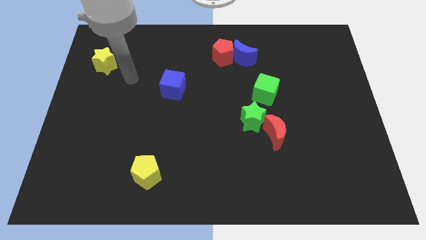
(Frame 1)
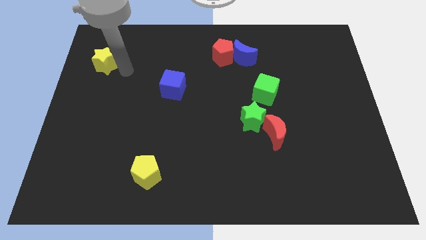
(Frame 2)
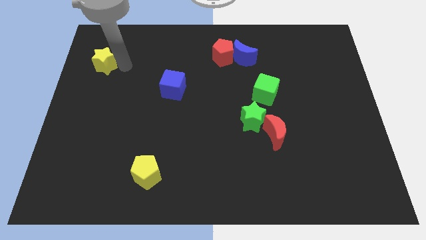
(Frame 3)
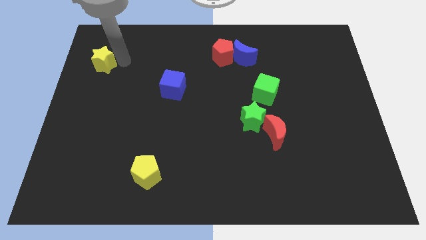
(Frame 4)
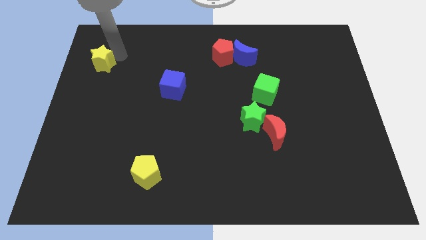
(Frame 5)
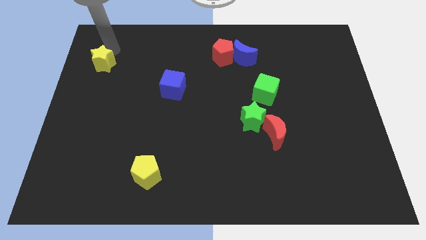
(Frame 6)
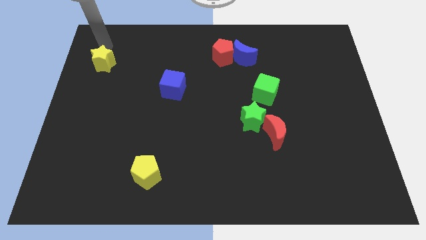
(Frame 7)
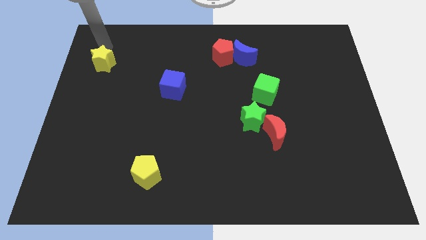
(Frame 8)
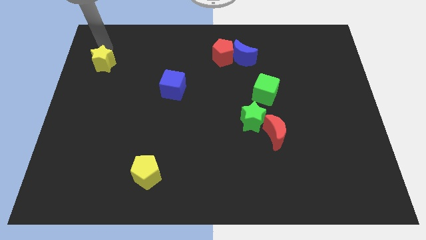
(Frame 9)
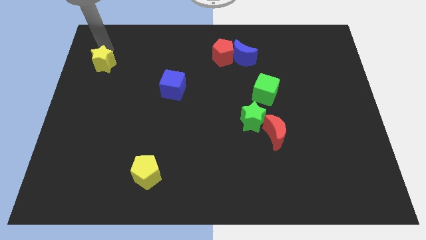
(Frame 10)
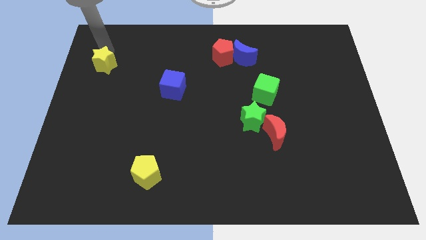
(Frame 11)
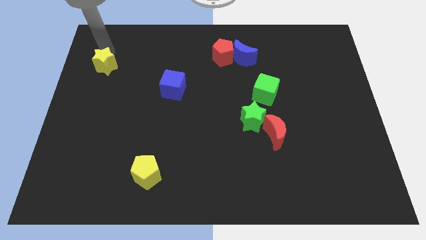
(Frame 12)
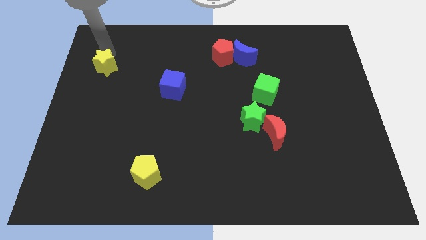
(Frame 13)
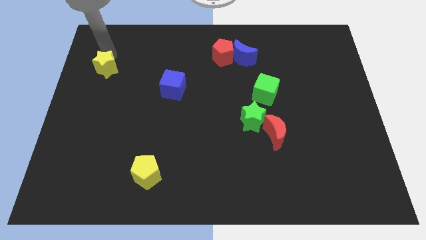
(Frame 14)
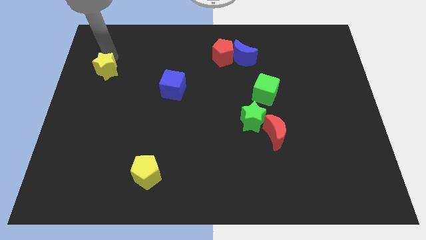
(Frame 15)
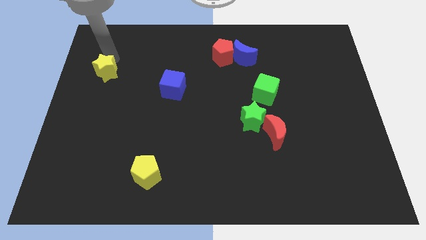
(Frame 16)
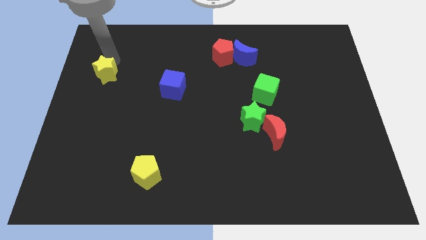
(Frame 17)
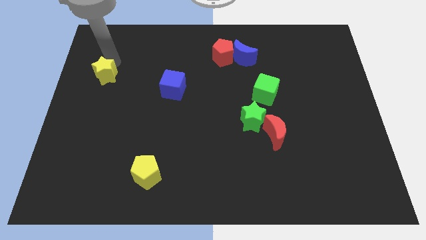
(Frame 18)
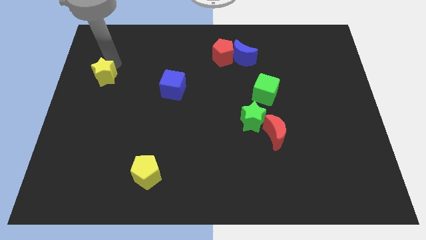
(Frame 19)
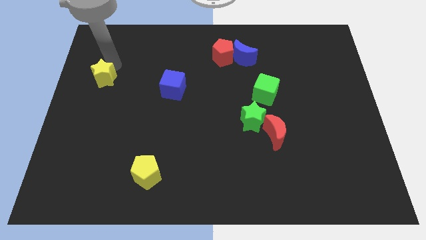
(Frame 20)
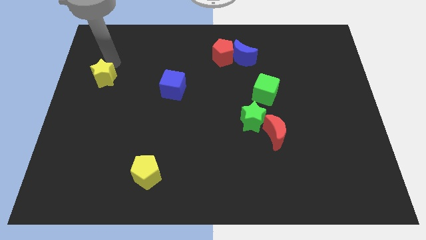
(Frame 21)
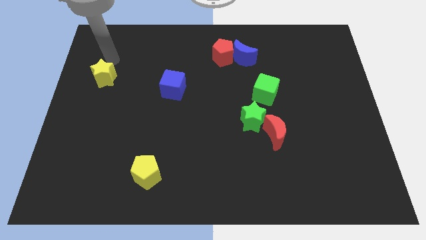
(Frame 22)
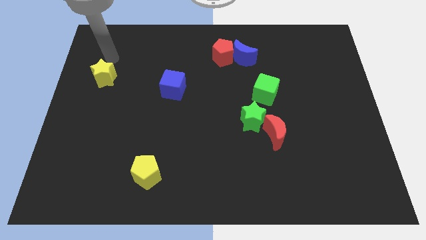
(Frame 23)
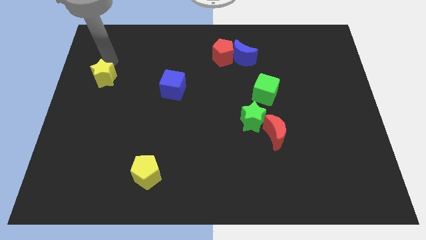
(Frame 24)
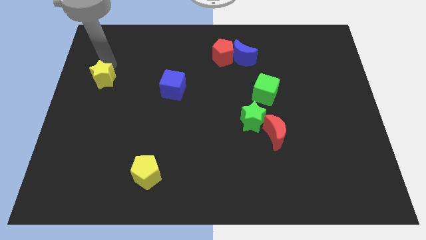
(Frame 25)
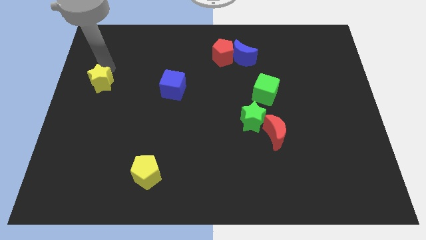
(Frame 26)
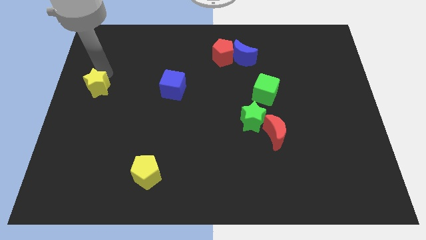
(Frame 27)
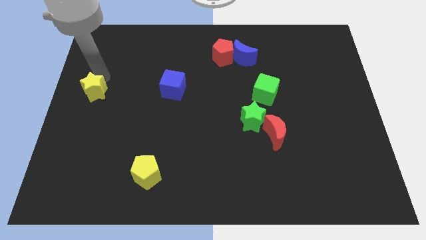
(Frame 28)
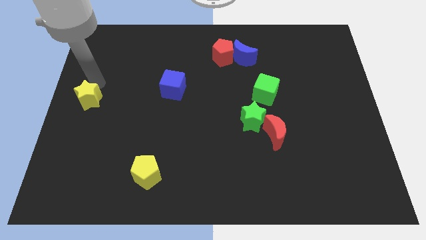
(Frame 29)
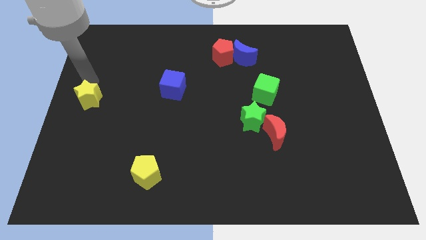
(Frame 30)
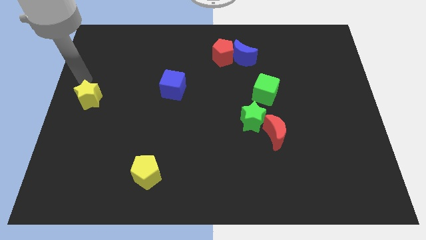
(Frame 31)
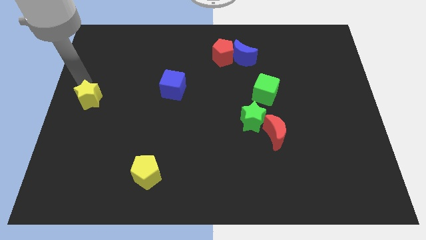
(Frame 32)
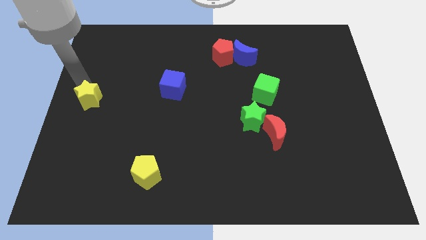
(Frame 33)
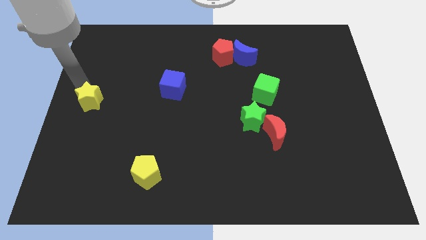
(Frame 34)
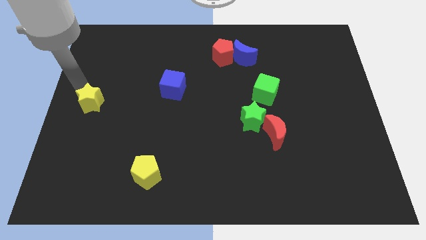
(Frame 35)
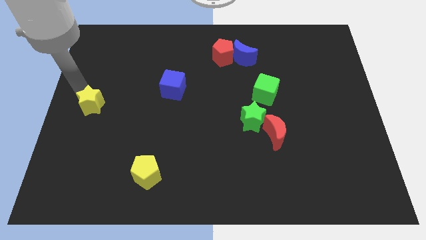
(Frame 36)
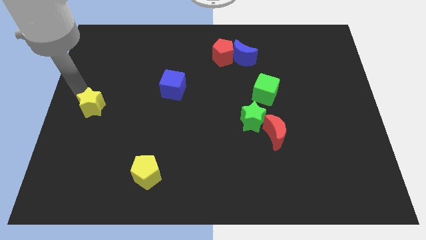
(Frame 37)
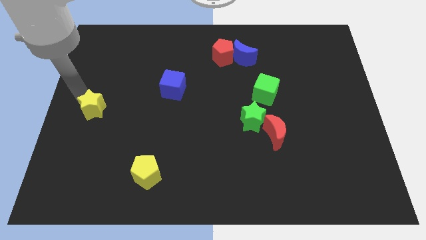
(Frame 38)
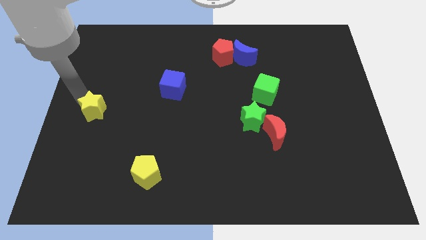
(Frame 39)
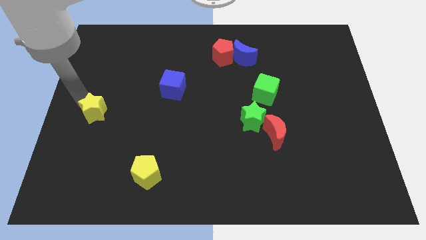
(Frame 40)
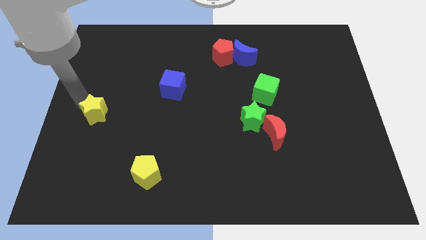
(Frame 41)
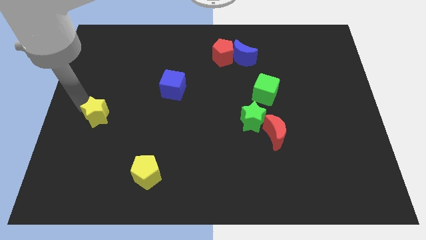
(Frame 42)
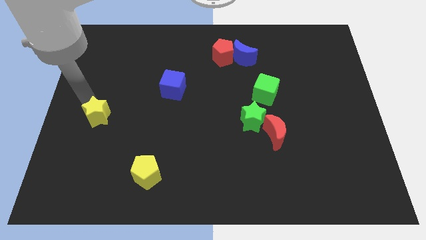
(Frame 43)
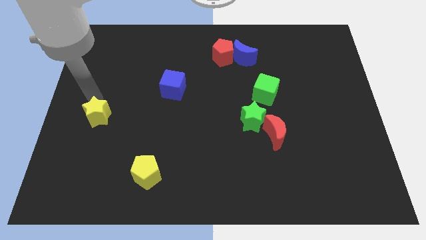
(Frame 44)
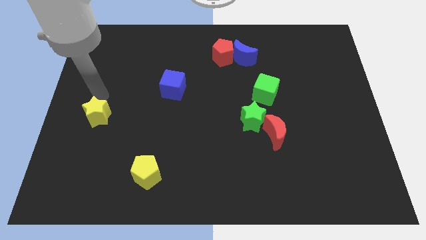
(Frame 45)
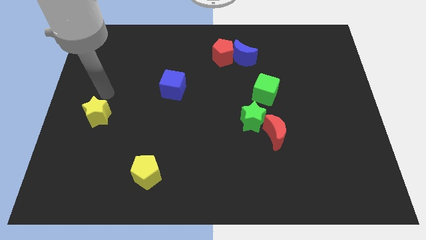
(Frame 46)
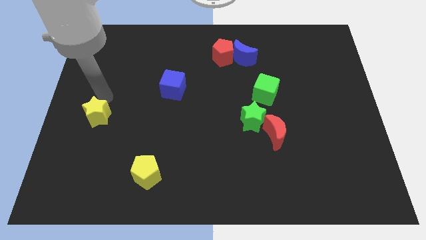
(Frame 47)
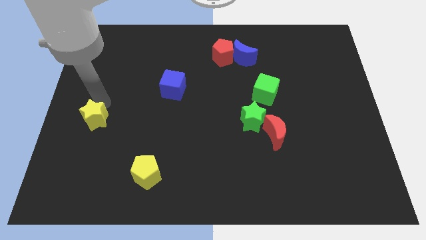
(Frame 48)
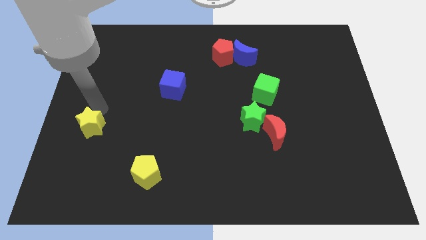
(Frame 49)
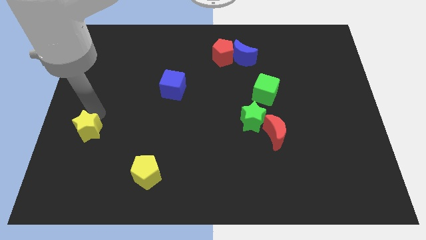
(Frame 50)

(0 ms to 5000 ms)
slide the yellow star downwards

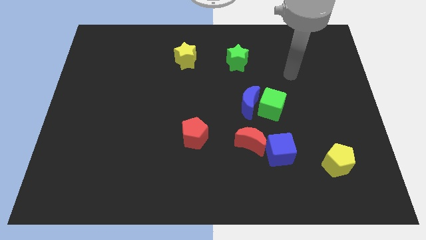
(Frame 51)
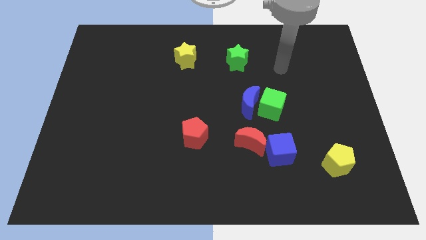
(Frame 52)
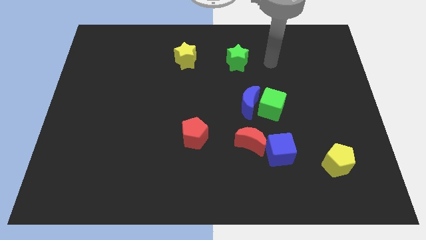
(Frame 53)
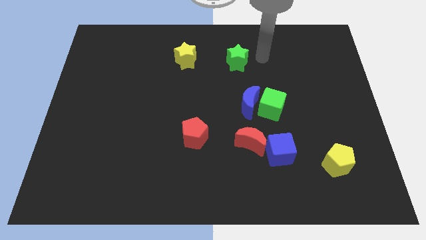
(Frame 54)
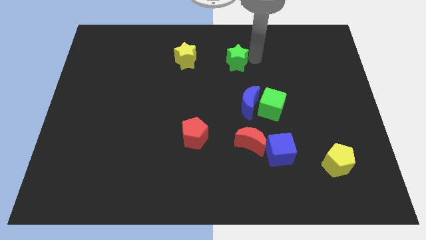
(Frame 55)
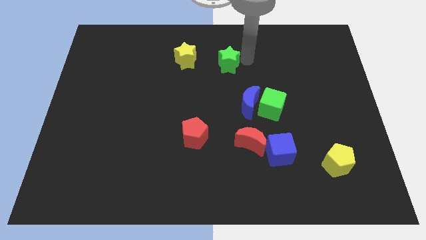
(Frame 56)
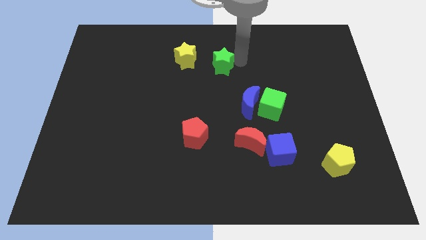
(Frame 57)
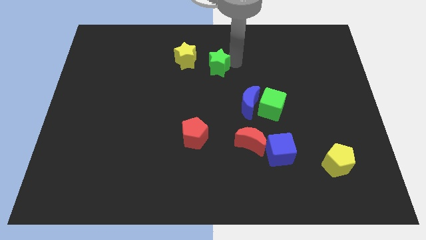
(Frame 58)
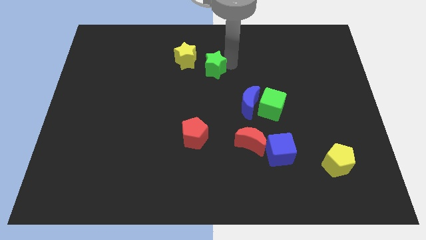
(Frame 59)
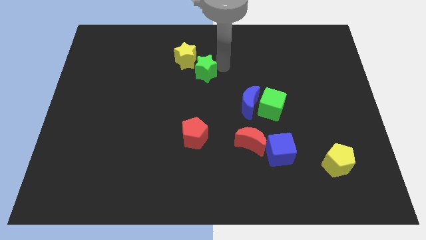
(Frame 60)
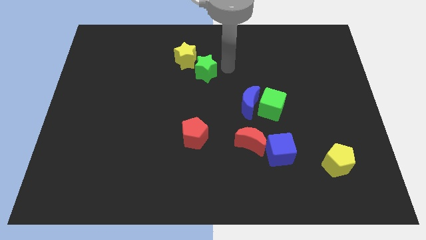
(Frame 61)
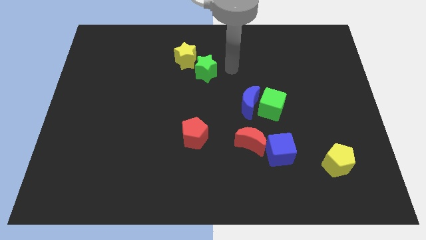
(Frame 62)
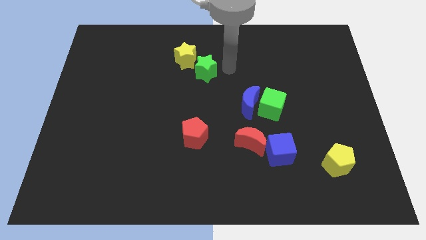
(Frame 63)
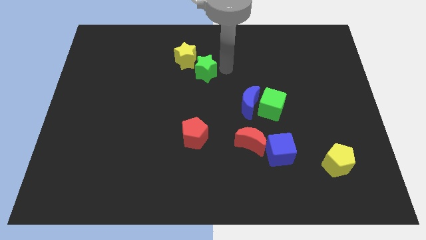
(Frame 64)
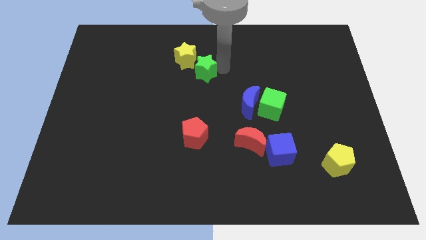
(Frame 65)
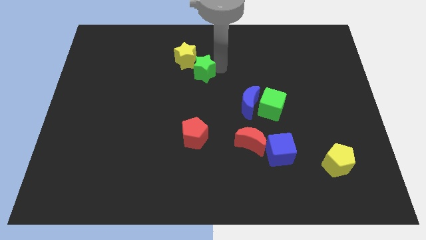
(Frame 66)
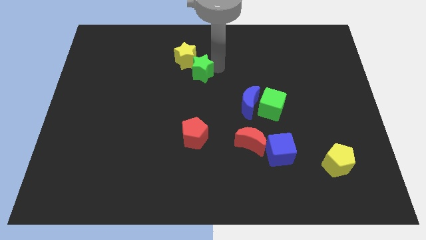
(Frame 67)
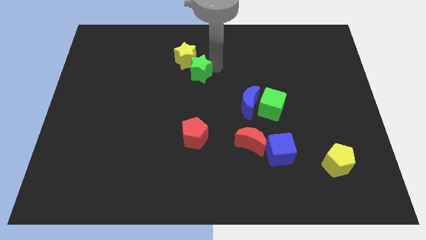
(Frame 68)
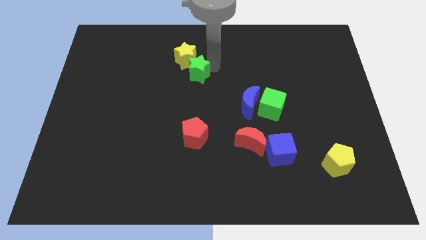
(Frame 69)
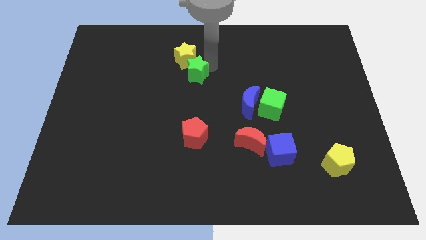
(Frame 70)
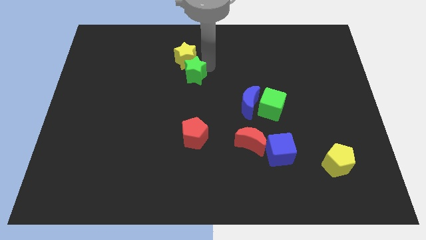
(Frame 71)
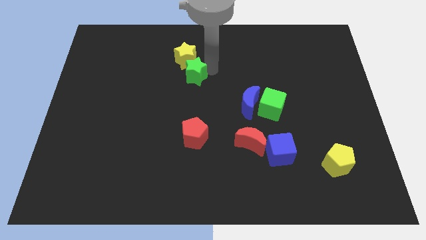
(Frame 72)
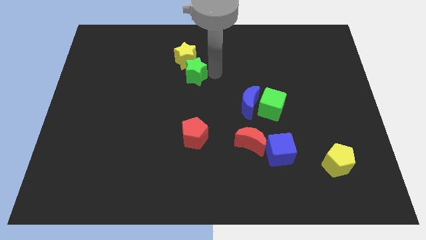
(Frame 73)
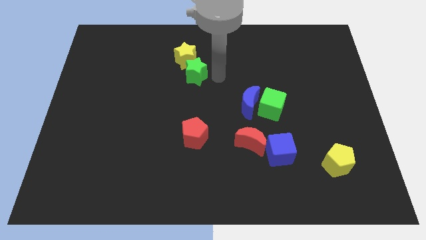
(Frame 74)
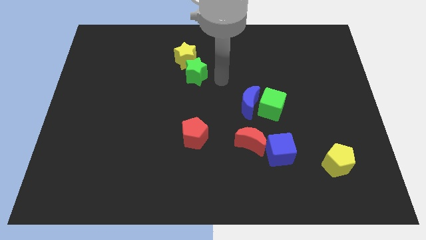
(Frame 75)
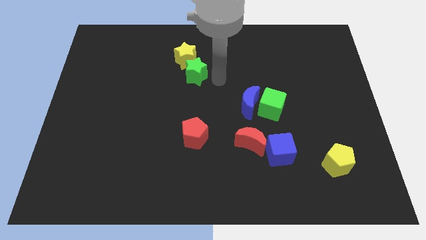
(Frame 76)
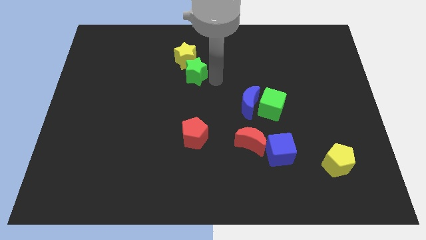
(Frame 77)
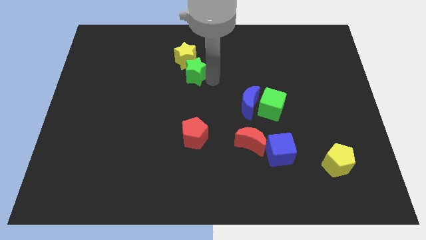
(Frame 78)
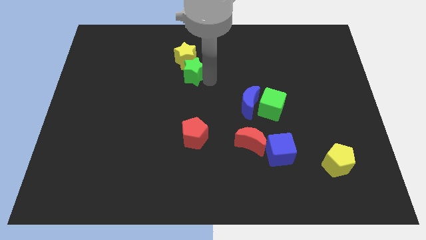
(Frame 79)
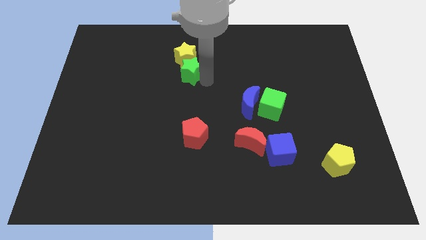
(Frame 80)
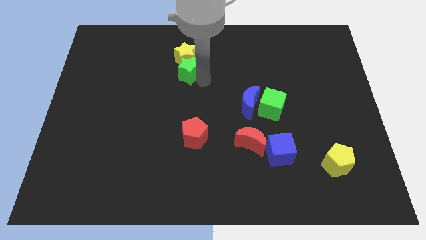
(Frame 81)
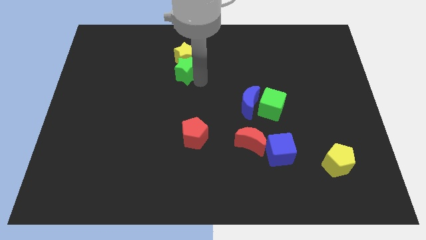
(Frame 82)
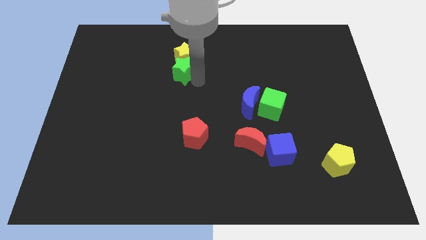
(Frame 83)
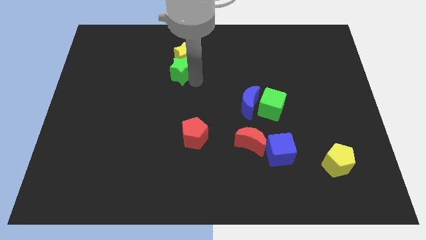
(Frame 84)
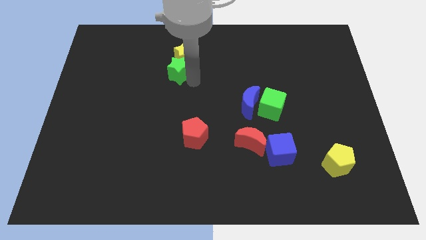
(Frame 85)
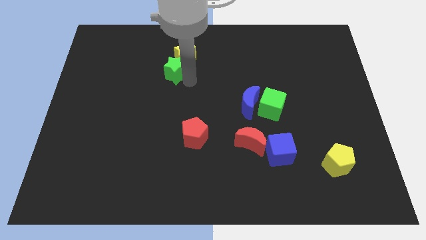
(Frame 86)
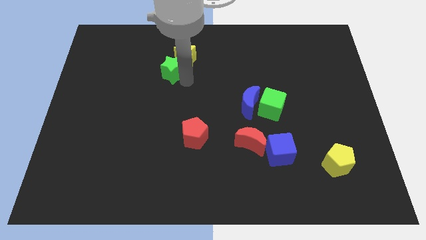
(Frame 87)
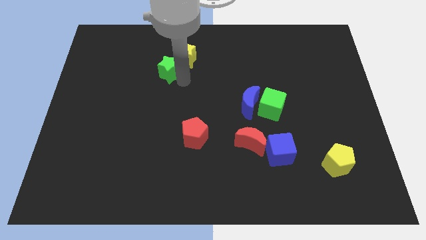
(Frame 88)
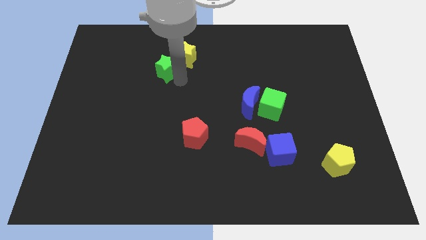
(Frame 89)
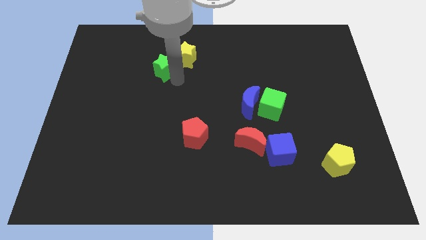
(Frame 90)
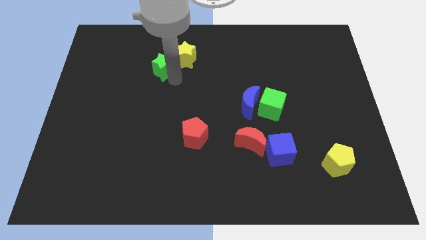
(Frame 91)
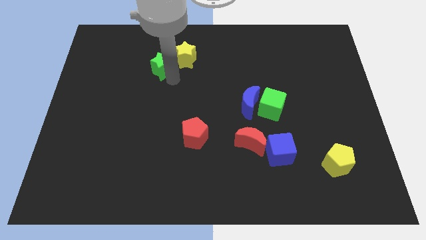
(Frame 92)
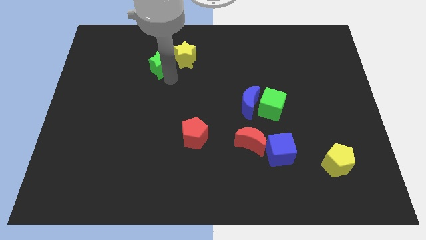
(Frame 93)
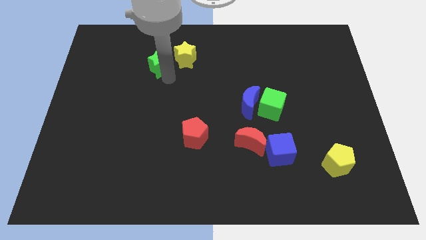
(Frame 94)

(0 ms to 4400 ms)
slide the green star to the left
